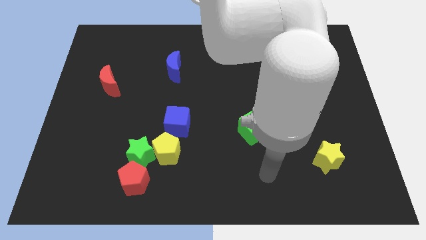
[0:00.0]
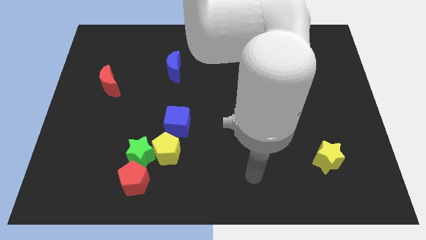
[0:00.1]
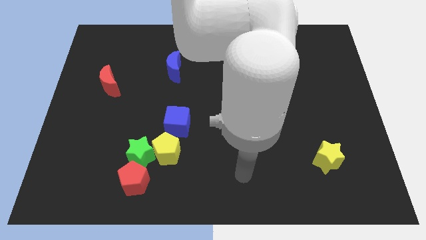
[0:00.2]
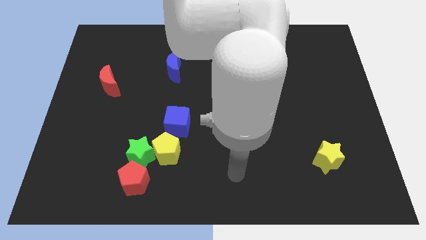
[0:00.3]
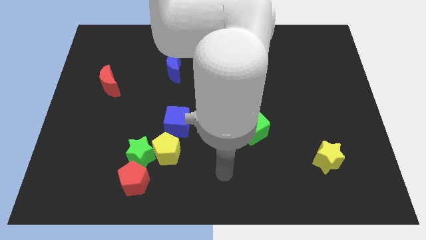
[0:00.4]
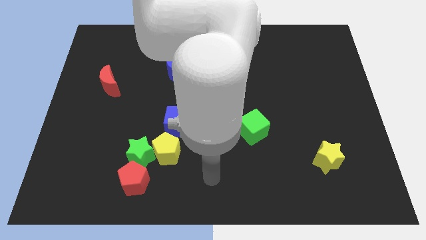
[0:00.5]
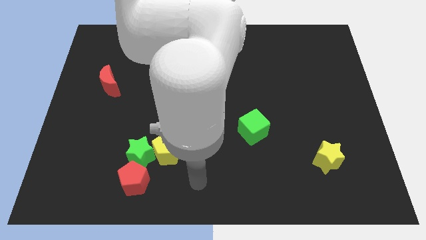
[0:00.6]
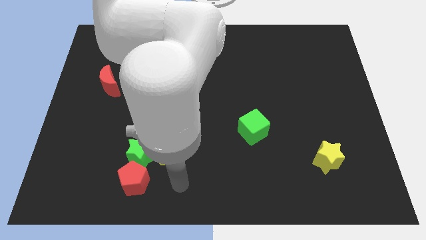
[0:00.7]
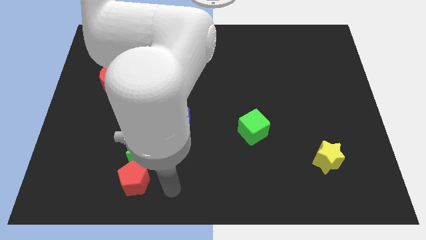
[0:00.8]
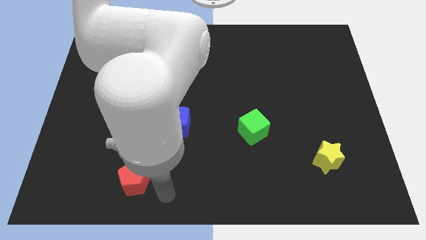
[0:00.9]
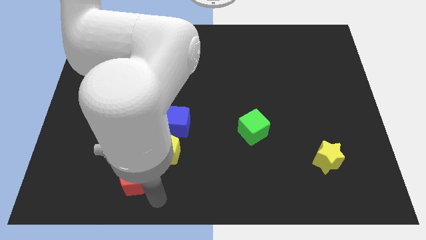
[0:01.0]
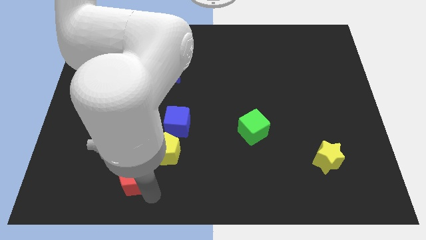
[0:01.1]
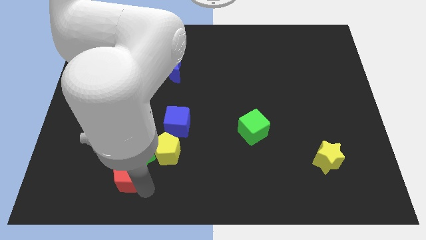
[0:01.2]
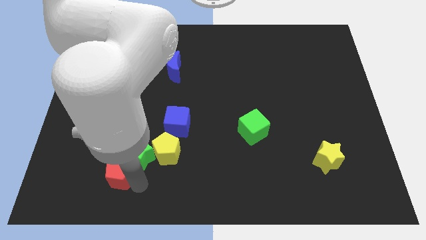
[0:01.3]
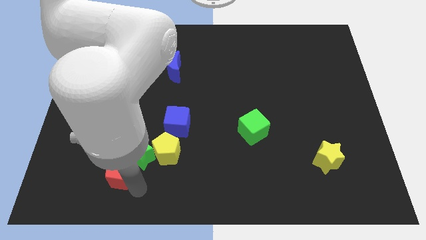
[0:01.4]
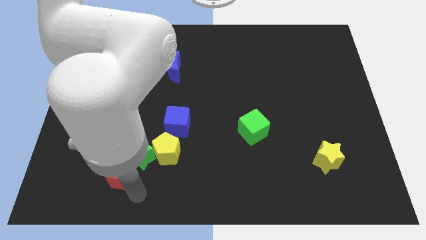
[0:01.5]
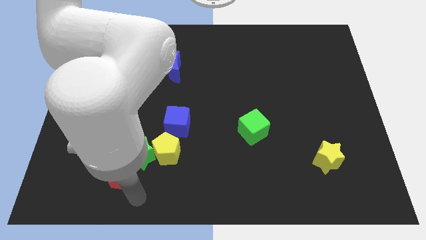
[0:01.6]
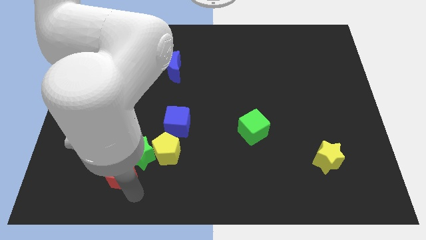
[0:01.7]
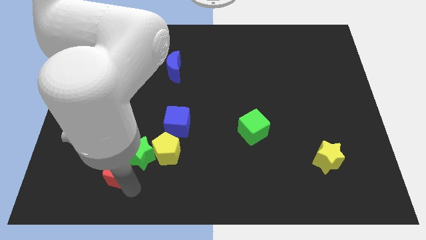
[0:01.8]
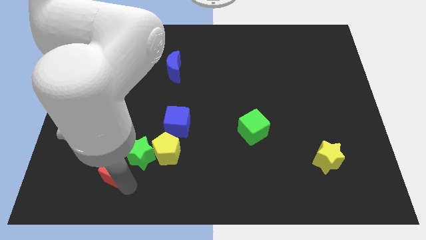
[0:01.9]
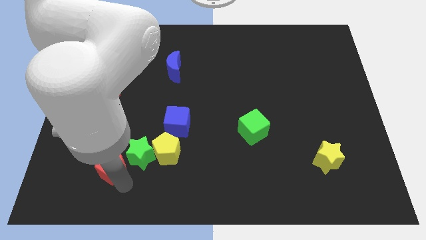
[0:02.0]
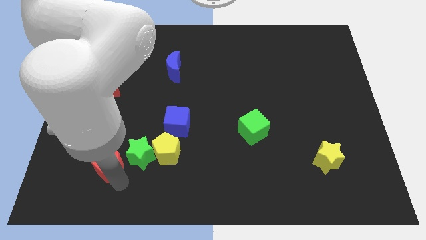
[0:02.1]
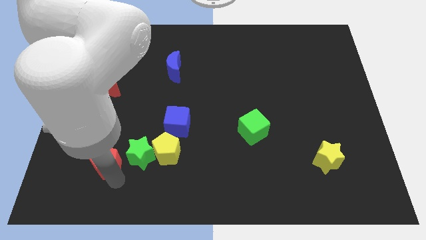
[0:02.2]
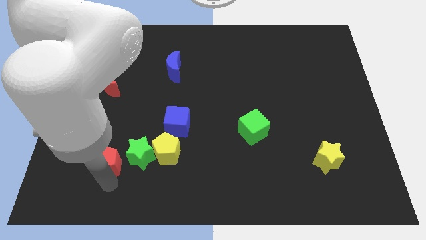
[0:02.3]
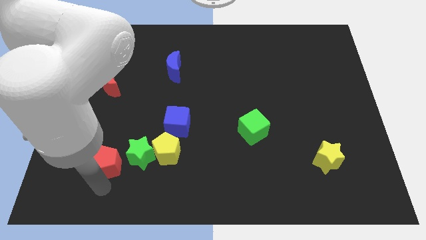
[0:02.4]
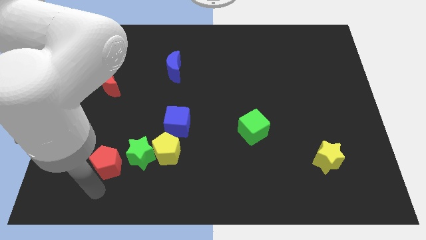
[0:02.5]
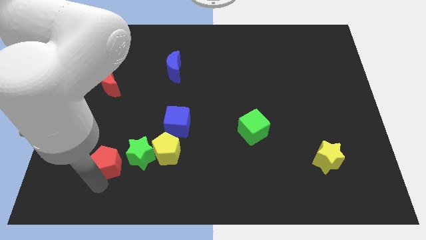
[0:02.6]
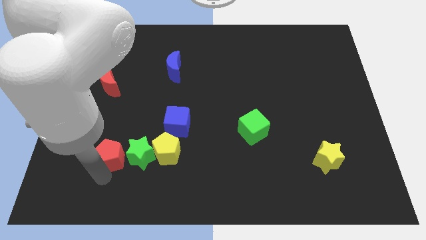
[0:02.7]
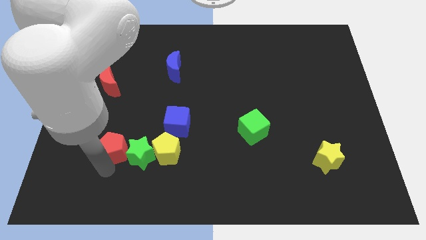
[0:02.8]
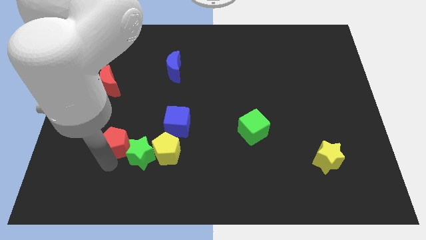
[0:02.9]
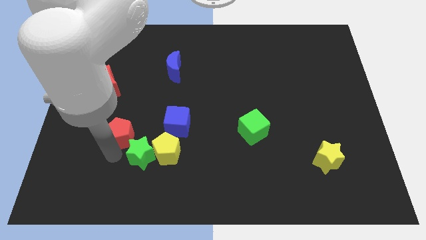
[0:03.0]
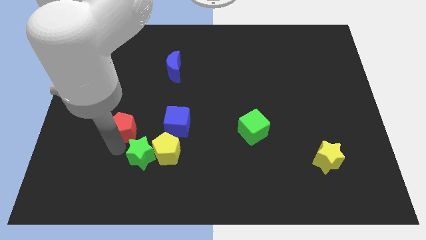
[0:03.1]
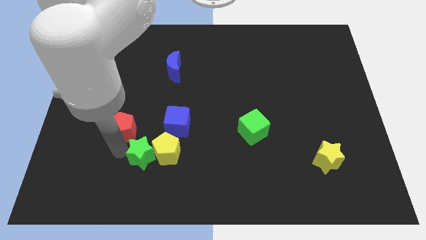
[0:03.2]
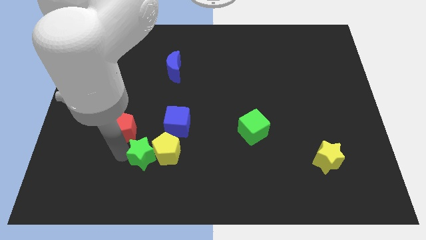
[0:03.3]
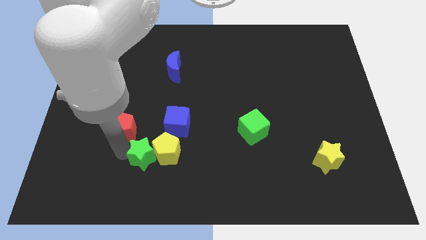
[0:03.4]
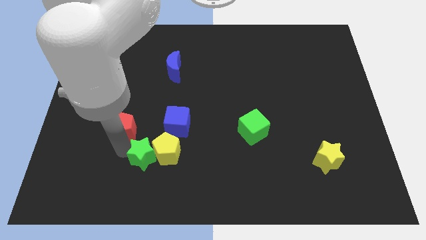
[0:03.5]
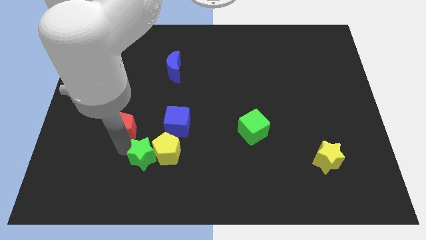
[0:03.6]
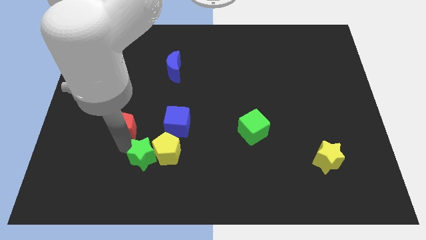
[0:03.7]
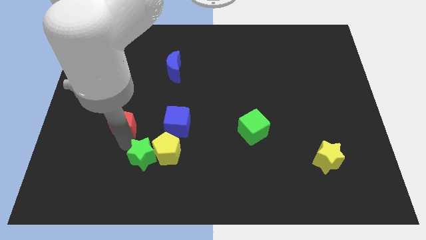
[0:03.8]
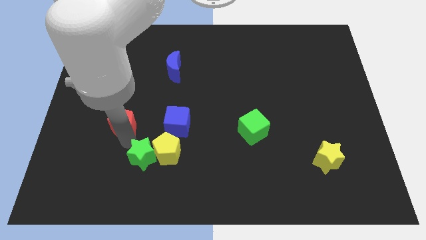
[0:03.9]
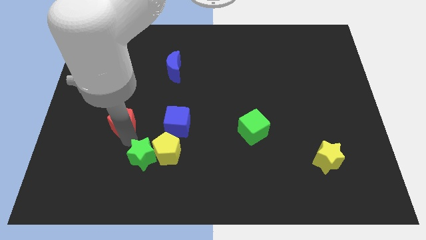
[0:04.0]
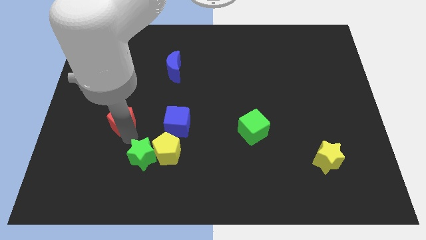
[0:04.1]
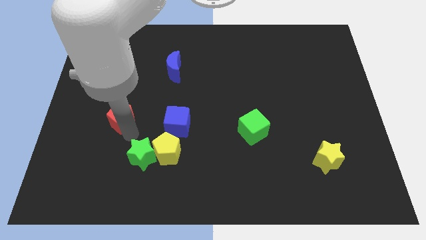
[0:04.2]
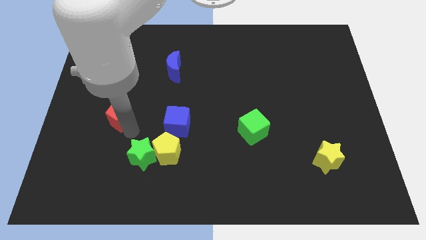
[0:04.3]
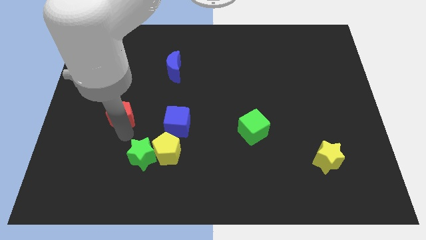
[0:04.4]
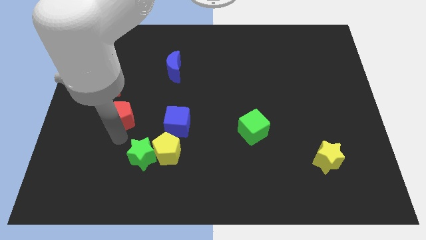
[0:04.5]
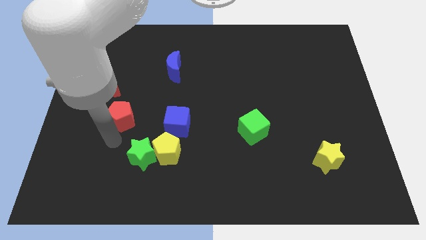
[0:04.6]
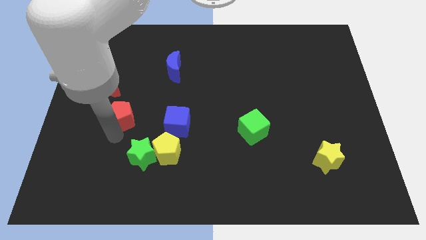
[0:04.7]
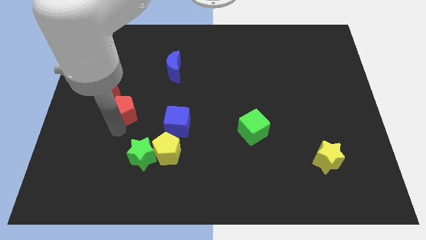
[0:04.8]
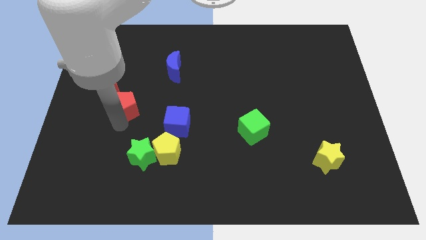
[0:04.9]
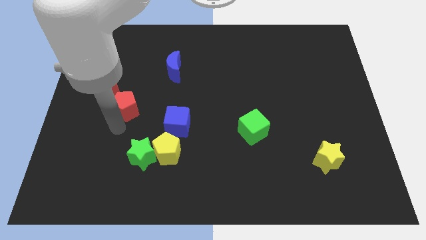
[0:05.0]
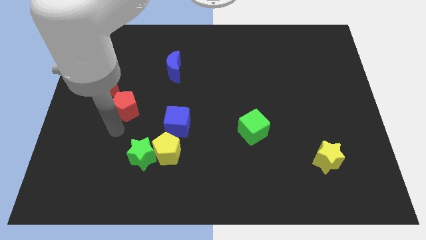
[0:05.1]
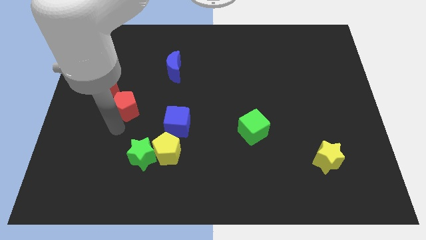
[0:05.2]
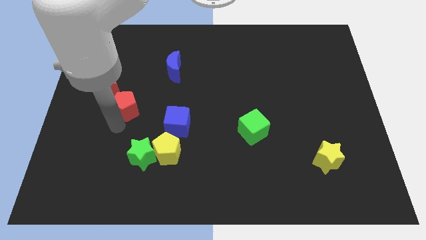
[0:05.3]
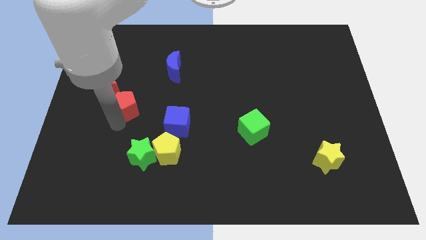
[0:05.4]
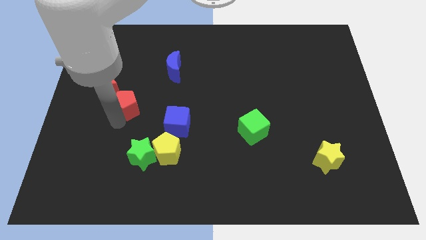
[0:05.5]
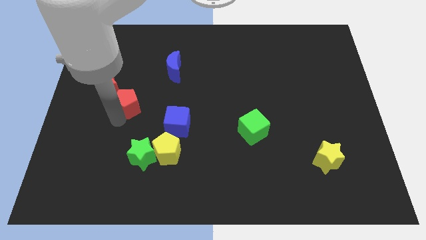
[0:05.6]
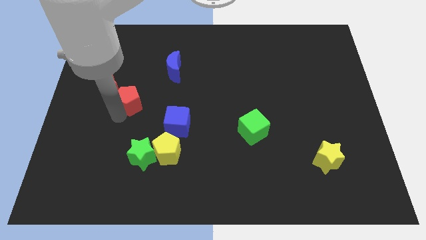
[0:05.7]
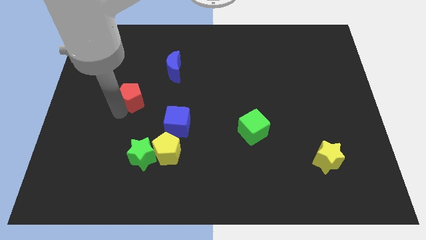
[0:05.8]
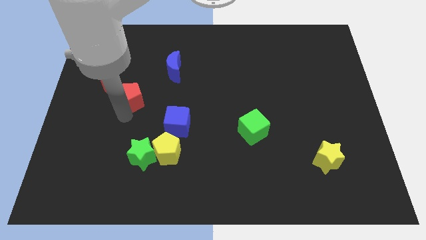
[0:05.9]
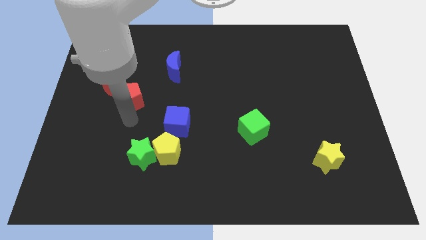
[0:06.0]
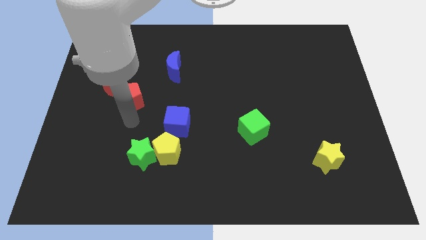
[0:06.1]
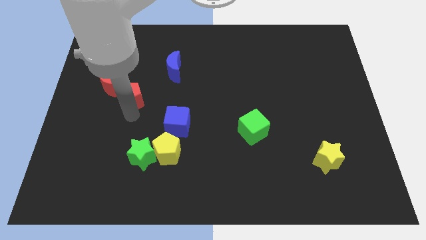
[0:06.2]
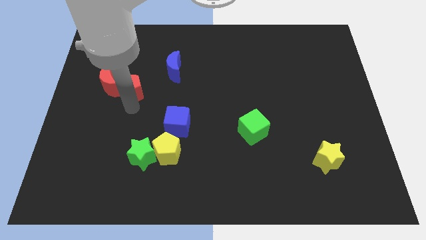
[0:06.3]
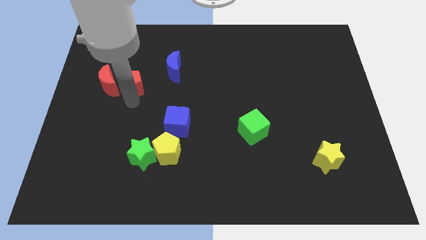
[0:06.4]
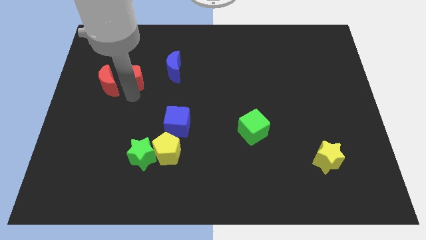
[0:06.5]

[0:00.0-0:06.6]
put the red pentagon to the left side of the blue moon

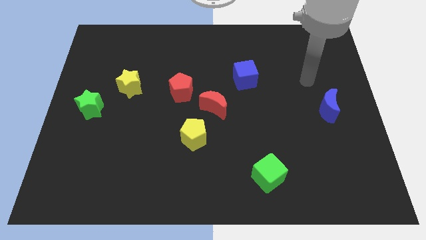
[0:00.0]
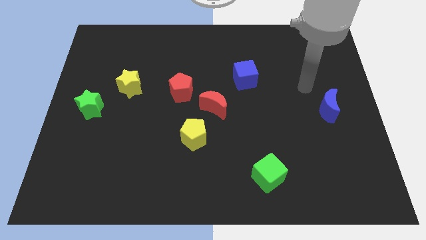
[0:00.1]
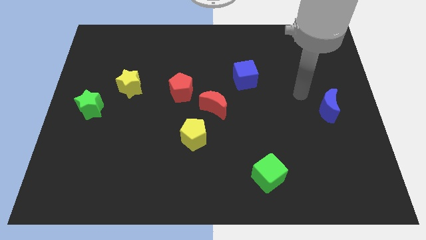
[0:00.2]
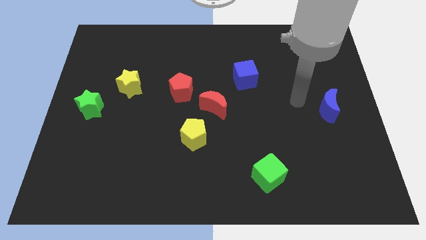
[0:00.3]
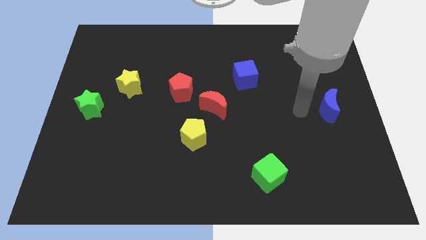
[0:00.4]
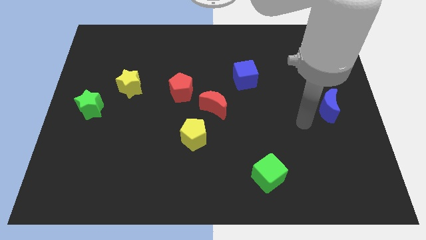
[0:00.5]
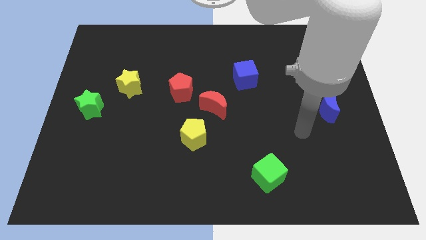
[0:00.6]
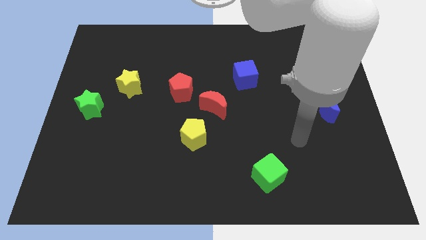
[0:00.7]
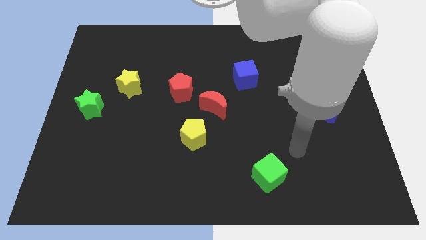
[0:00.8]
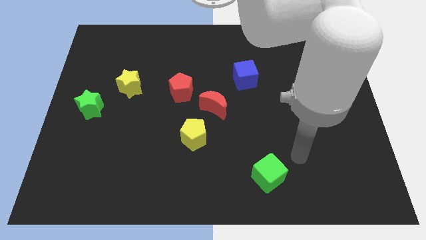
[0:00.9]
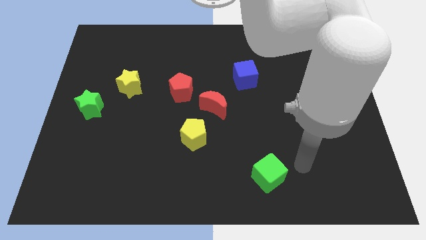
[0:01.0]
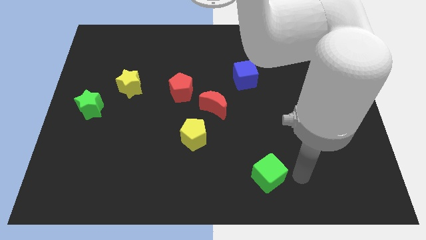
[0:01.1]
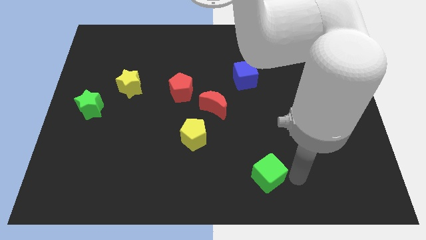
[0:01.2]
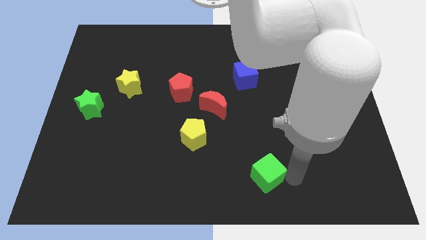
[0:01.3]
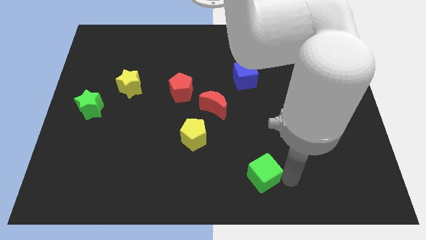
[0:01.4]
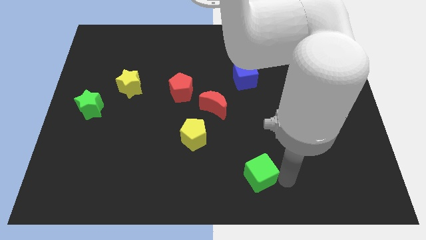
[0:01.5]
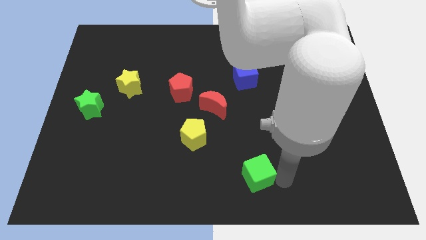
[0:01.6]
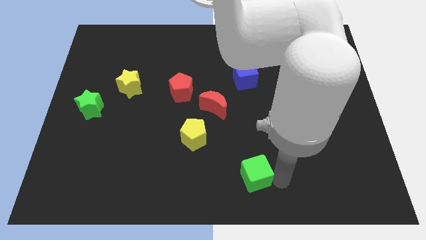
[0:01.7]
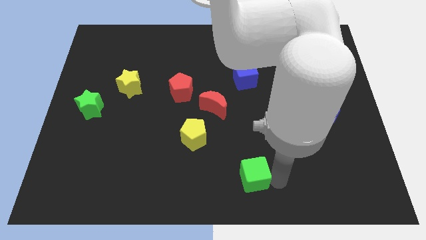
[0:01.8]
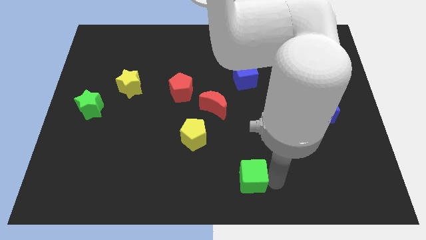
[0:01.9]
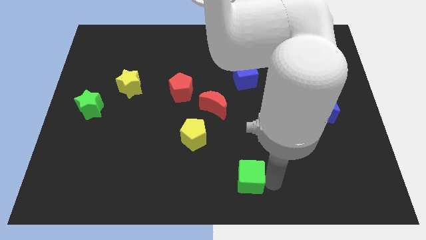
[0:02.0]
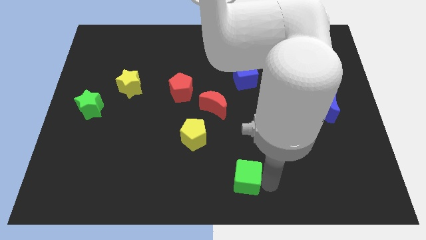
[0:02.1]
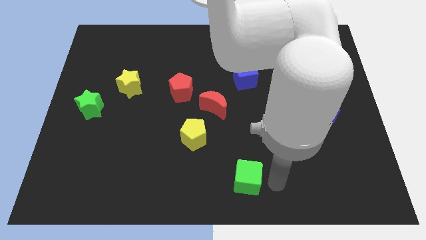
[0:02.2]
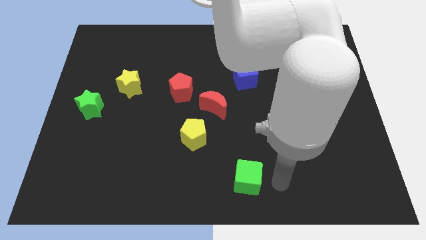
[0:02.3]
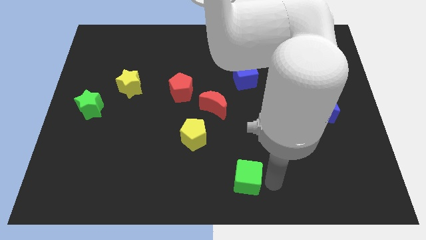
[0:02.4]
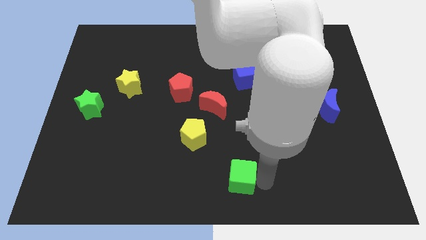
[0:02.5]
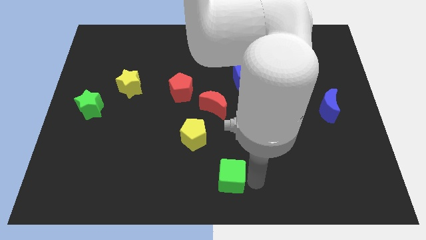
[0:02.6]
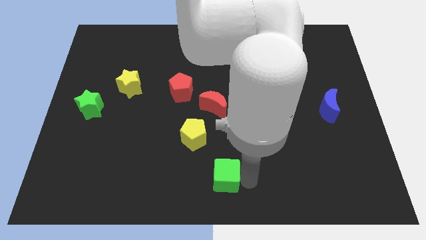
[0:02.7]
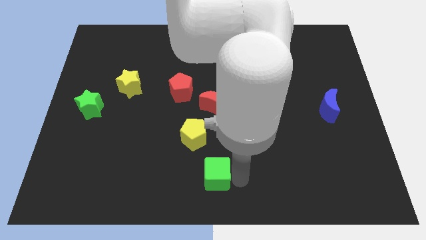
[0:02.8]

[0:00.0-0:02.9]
push the green cube to the bottom of the yellow pentagon
